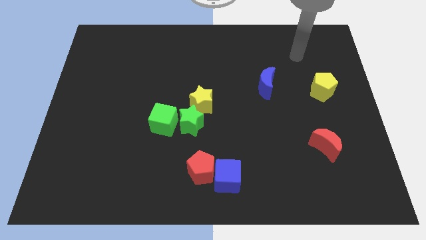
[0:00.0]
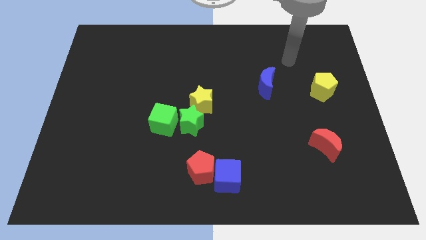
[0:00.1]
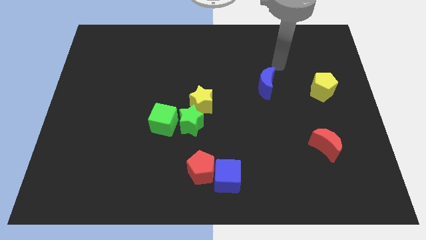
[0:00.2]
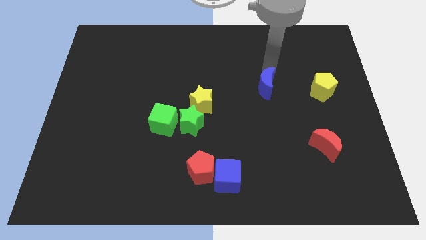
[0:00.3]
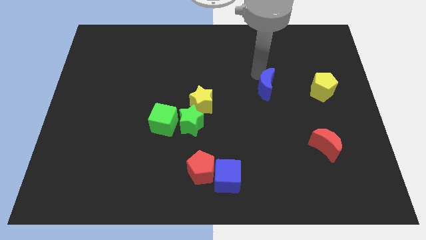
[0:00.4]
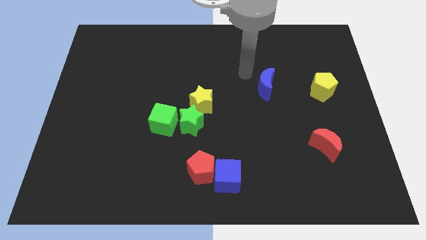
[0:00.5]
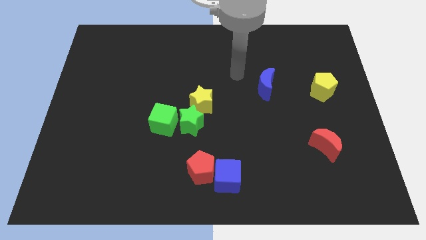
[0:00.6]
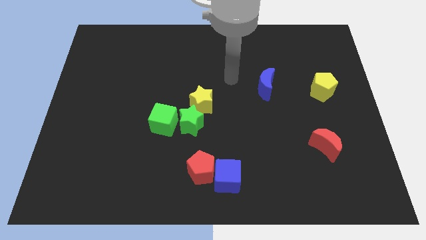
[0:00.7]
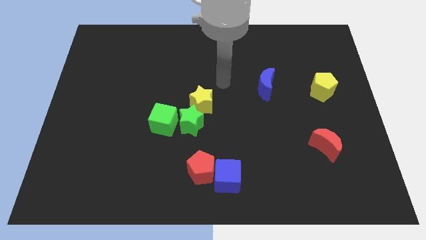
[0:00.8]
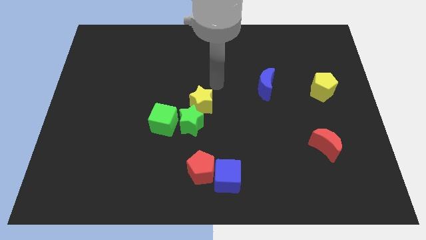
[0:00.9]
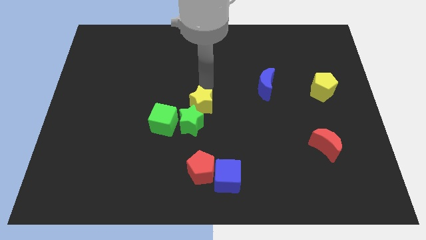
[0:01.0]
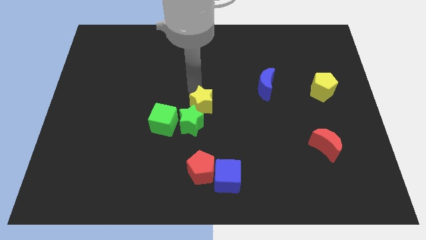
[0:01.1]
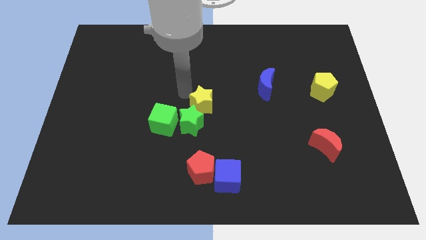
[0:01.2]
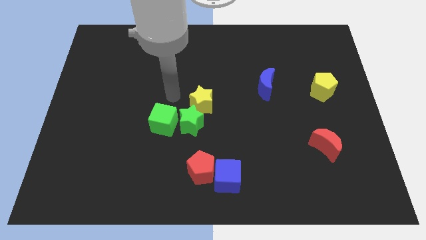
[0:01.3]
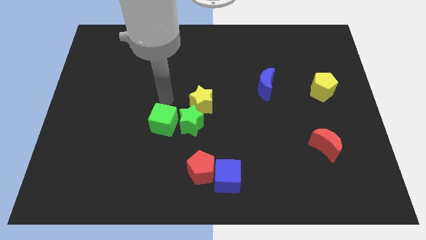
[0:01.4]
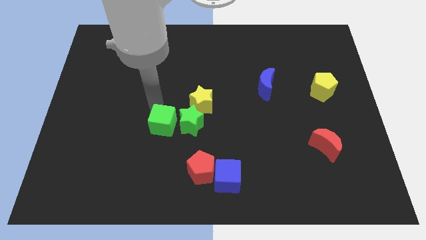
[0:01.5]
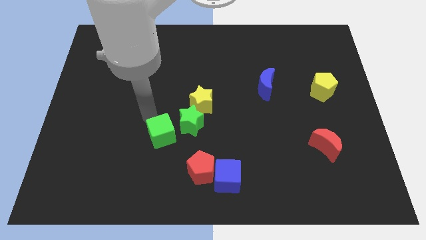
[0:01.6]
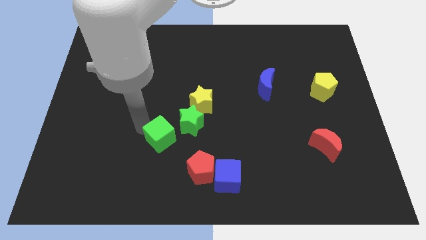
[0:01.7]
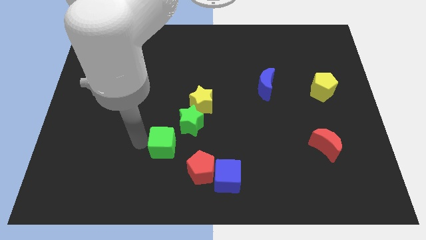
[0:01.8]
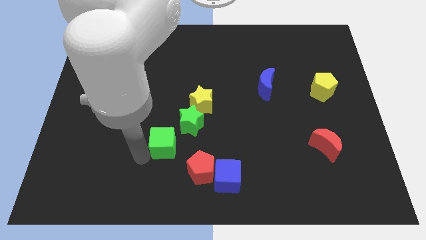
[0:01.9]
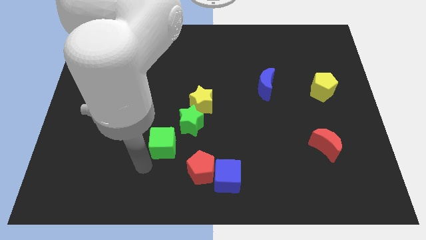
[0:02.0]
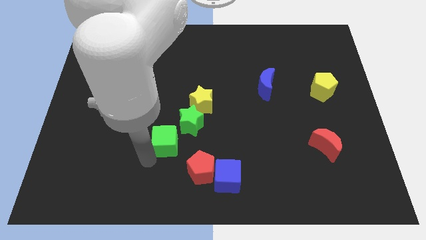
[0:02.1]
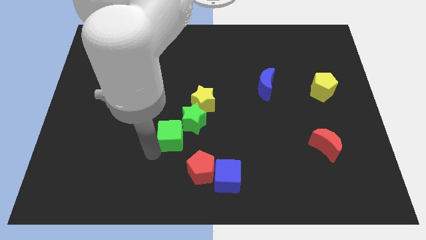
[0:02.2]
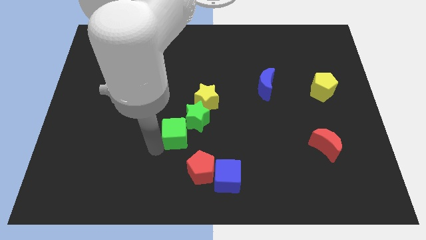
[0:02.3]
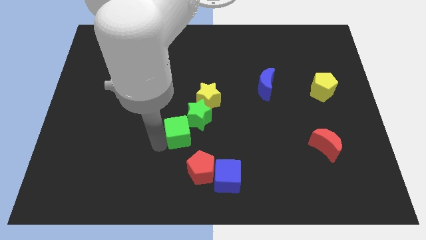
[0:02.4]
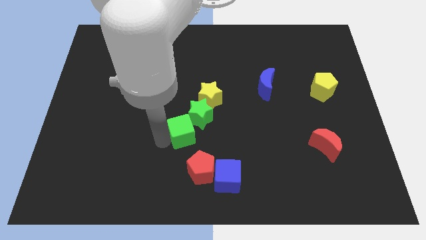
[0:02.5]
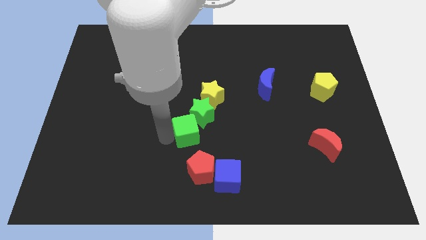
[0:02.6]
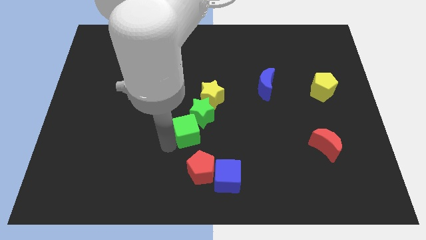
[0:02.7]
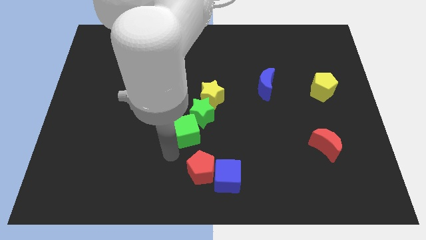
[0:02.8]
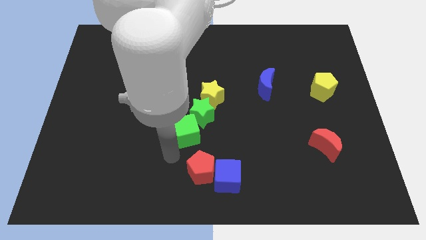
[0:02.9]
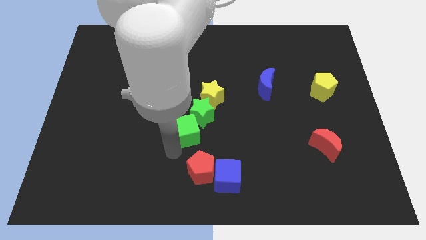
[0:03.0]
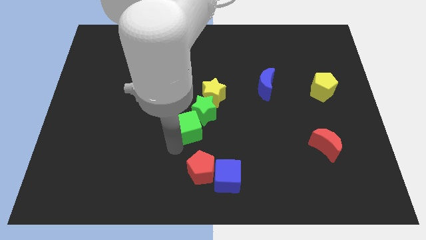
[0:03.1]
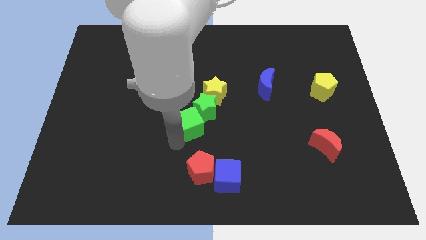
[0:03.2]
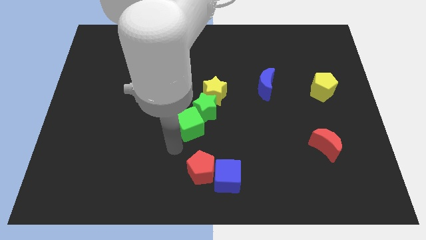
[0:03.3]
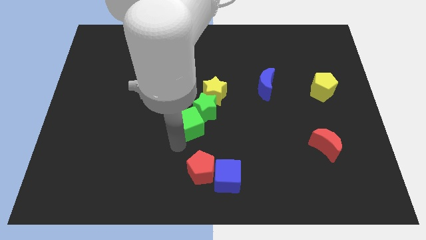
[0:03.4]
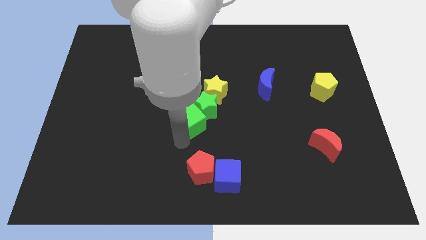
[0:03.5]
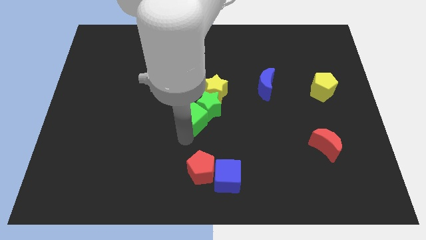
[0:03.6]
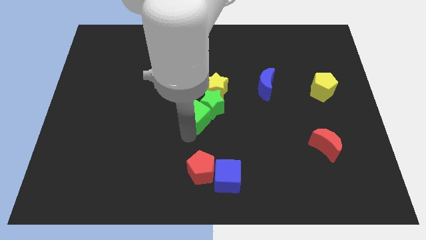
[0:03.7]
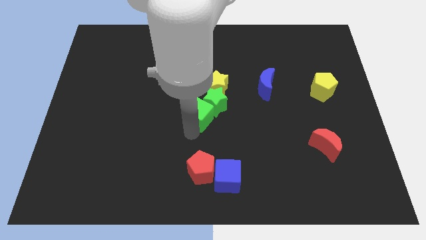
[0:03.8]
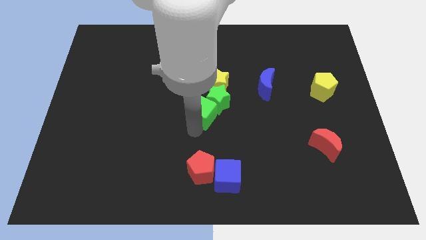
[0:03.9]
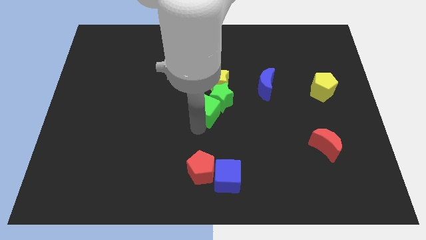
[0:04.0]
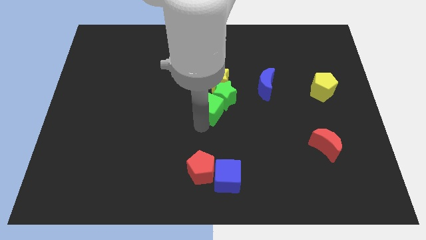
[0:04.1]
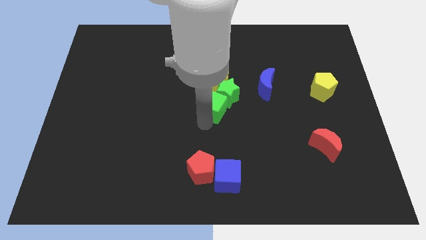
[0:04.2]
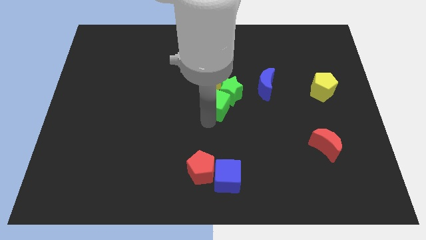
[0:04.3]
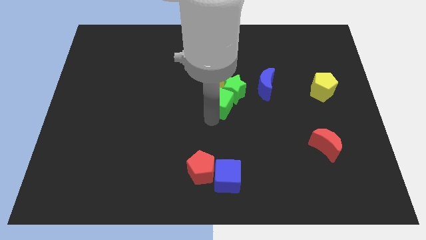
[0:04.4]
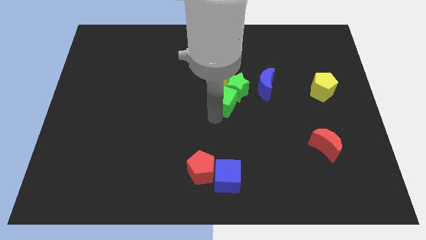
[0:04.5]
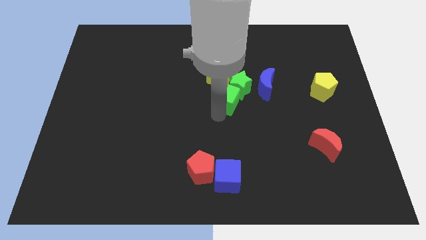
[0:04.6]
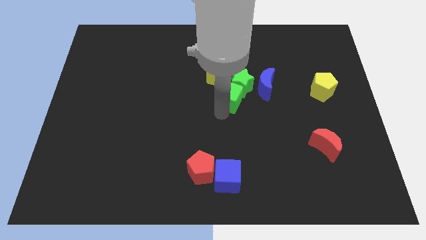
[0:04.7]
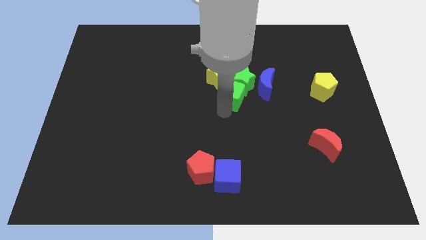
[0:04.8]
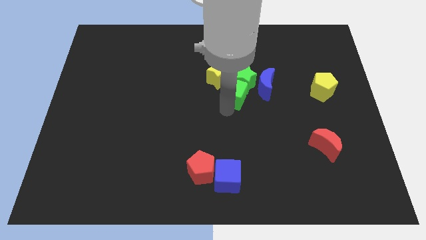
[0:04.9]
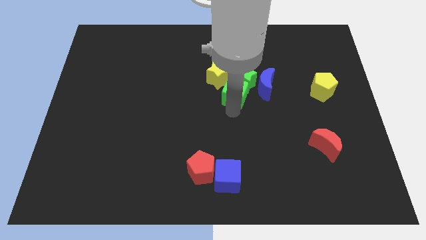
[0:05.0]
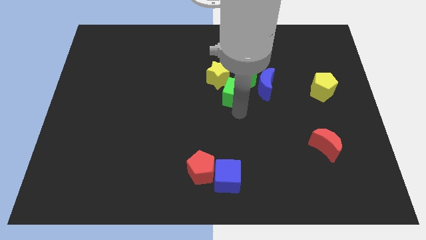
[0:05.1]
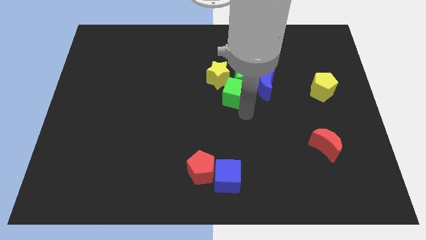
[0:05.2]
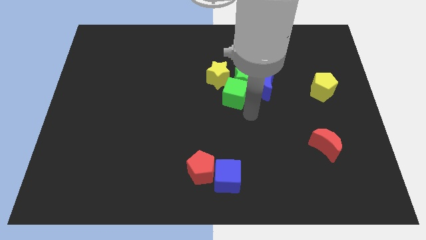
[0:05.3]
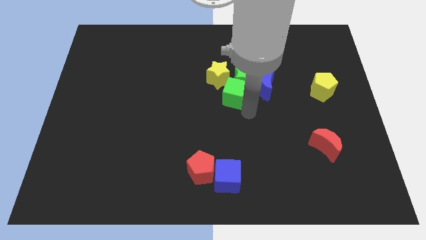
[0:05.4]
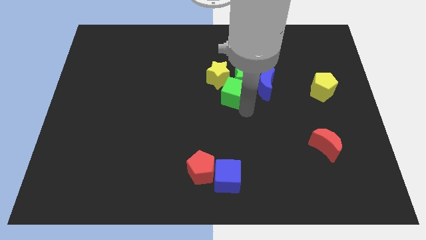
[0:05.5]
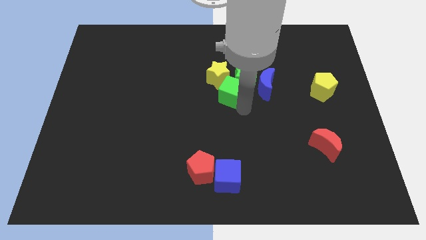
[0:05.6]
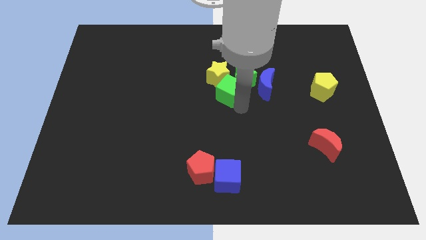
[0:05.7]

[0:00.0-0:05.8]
move the green cube towards the yellow star

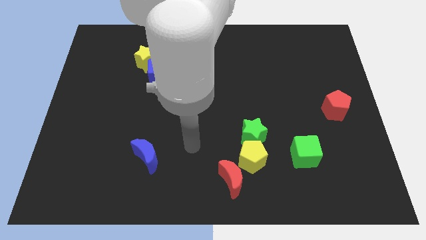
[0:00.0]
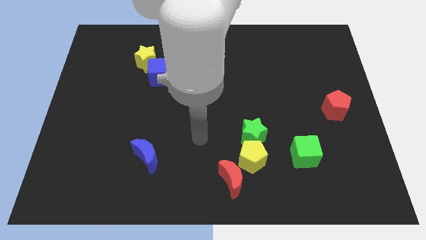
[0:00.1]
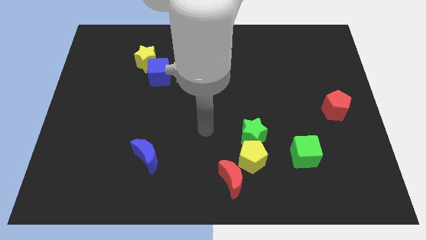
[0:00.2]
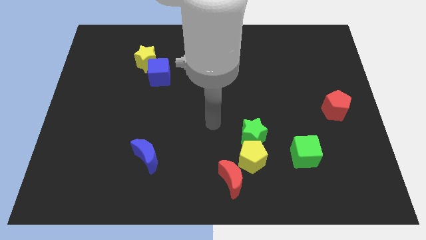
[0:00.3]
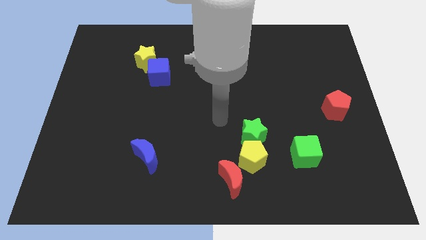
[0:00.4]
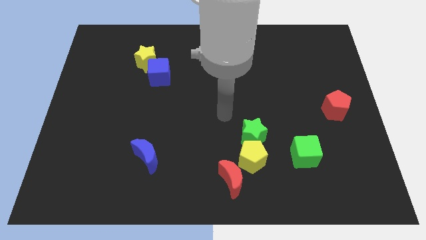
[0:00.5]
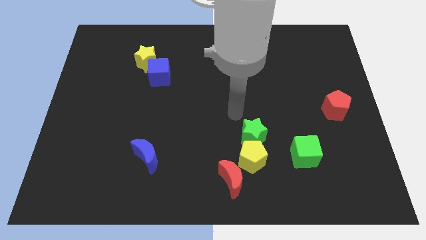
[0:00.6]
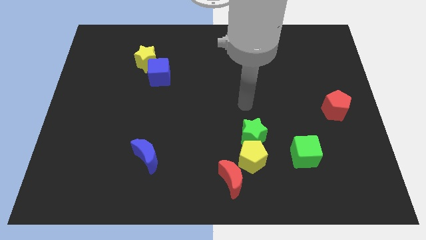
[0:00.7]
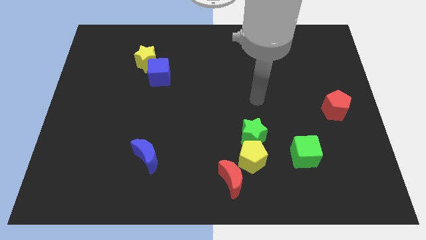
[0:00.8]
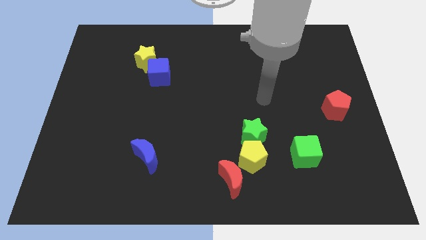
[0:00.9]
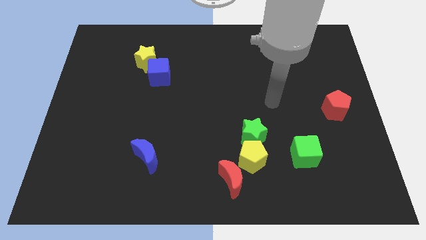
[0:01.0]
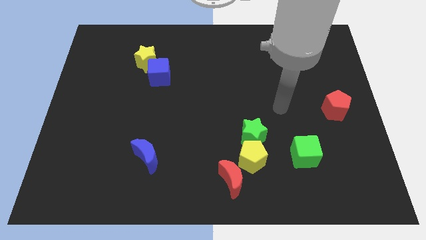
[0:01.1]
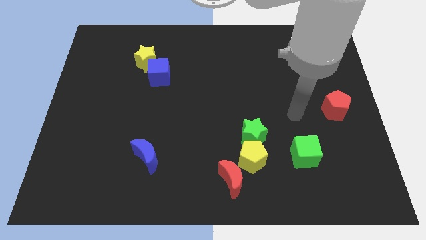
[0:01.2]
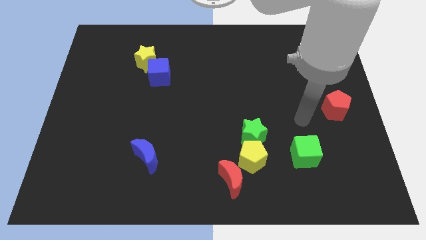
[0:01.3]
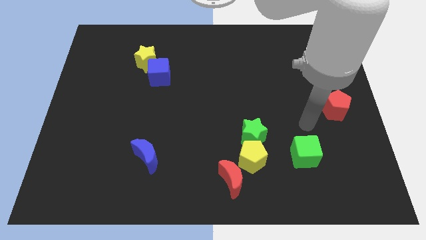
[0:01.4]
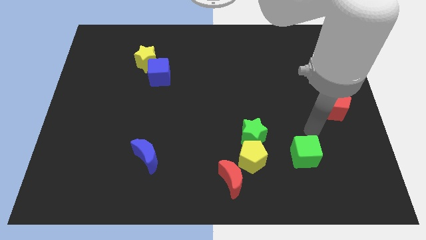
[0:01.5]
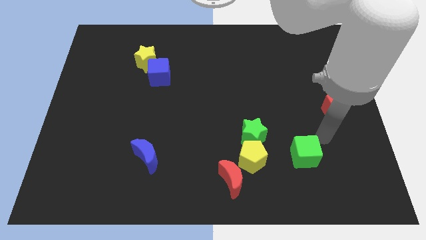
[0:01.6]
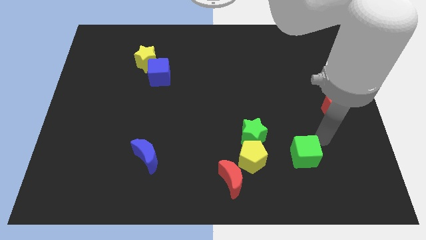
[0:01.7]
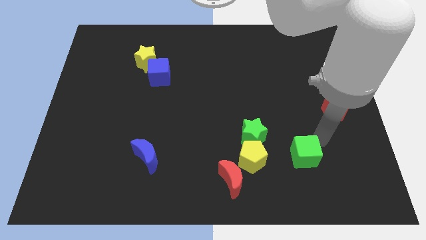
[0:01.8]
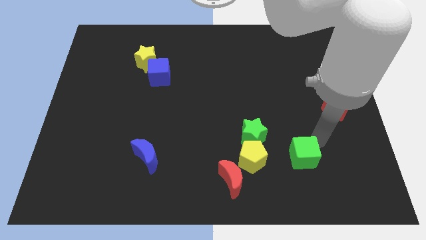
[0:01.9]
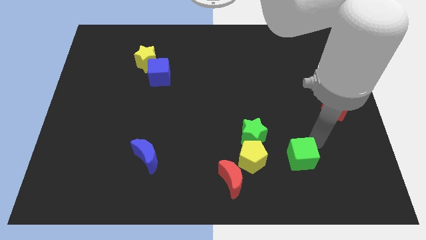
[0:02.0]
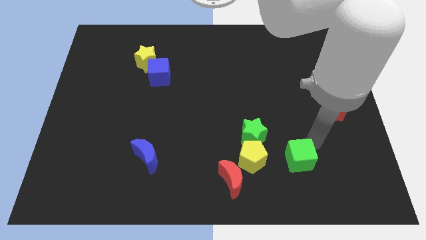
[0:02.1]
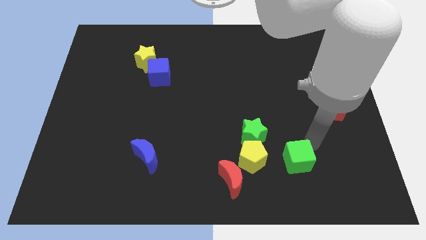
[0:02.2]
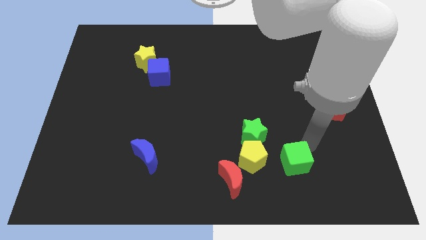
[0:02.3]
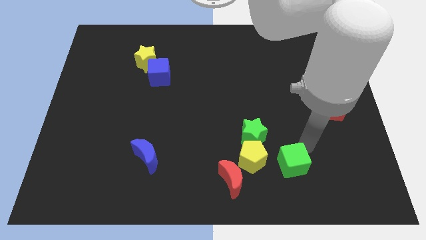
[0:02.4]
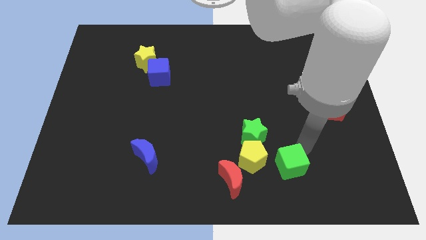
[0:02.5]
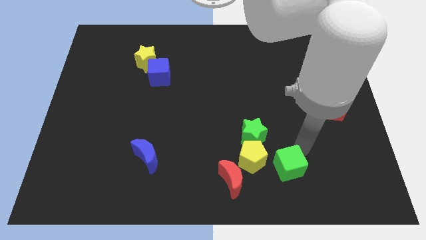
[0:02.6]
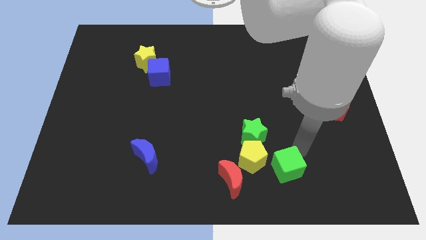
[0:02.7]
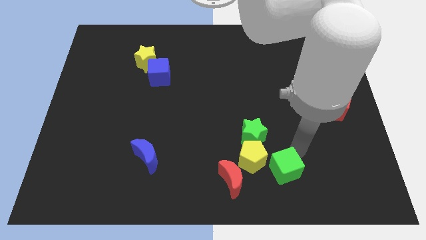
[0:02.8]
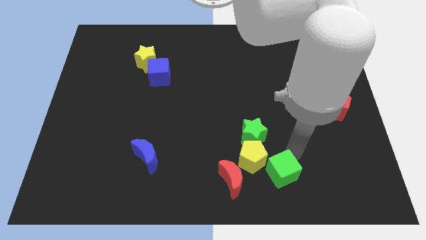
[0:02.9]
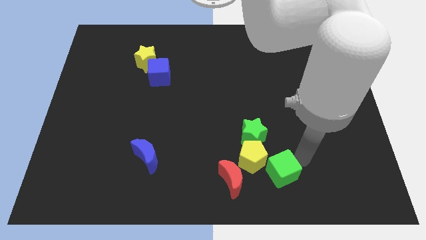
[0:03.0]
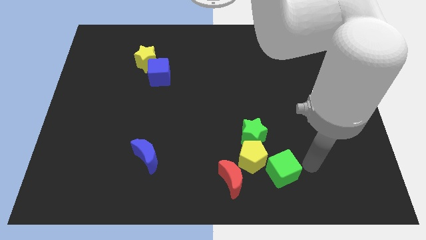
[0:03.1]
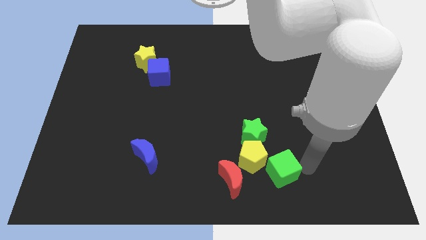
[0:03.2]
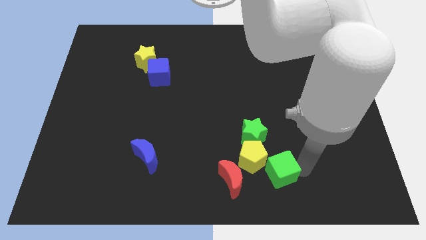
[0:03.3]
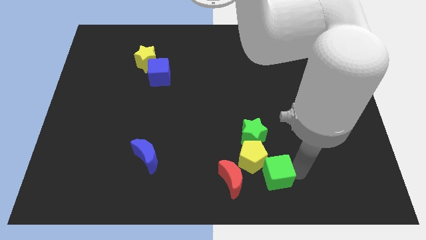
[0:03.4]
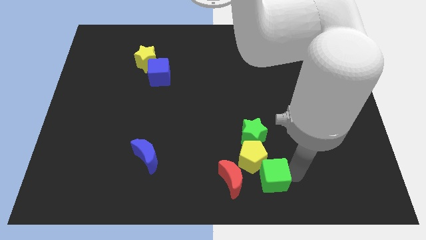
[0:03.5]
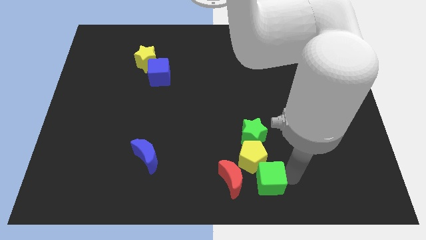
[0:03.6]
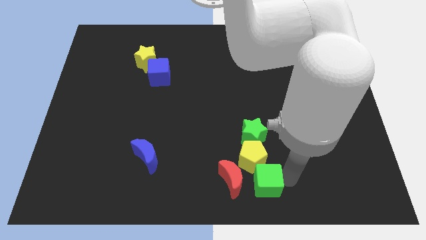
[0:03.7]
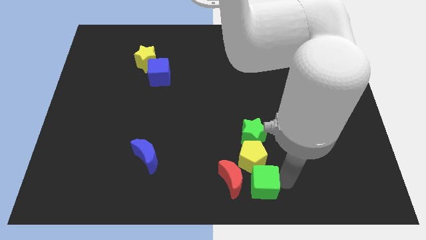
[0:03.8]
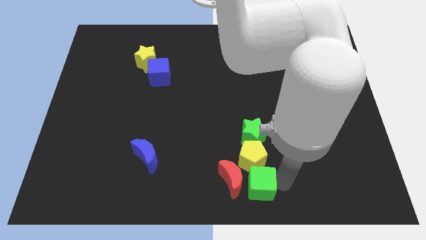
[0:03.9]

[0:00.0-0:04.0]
push the green cube to the red moon
